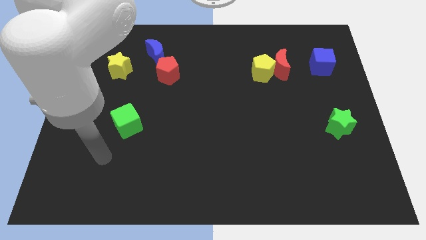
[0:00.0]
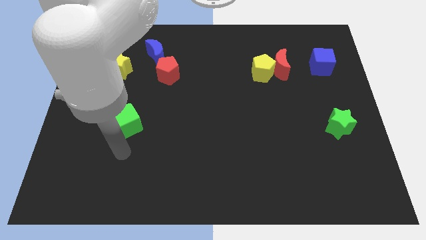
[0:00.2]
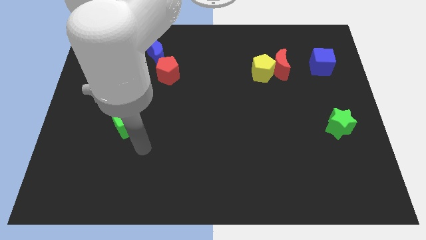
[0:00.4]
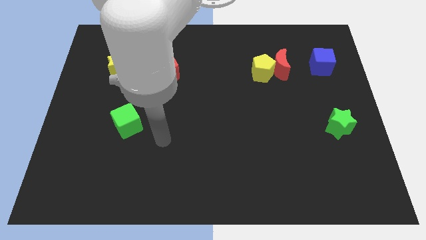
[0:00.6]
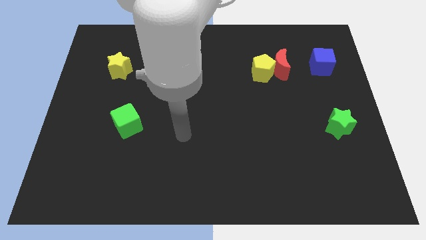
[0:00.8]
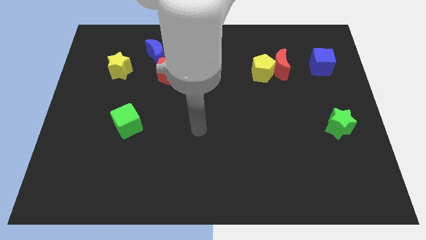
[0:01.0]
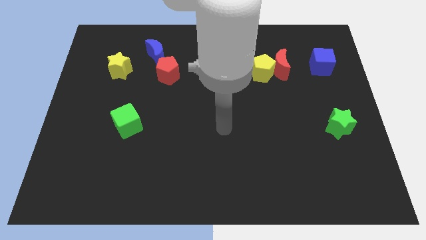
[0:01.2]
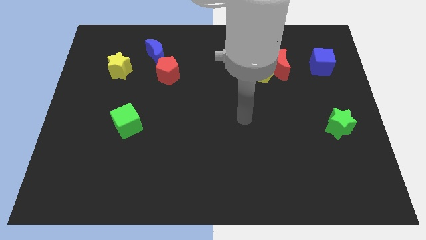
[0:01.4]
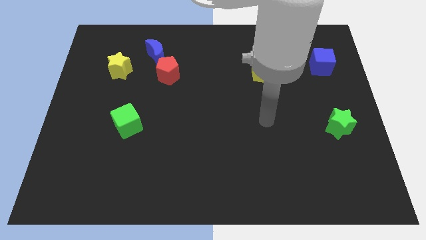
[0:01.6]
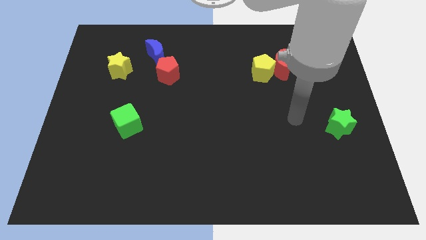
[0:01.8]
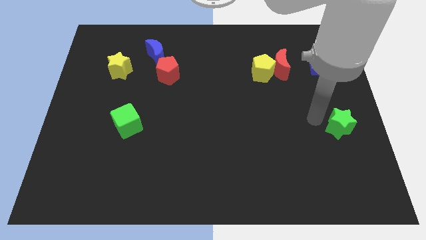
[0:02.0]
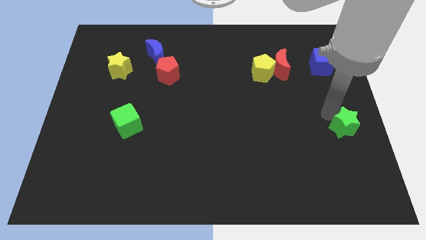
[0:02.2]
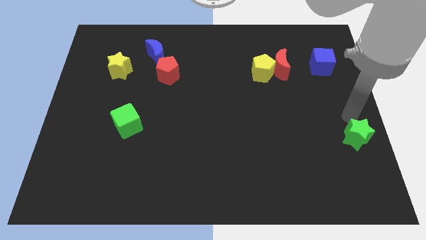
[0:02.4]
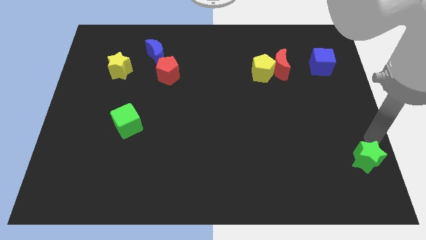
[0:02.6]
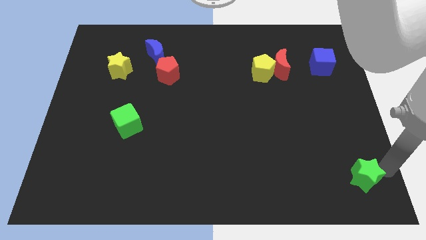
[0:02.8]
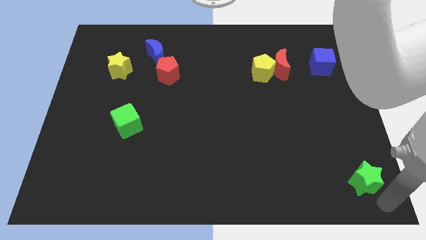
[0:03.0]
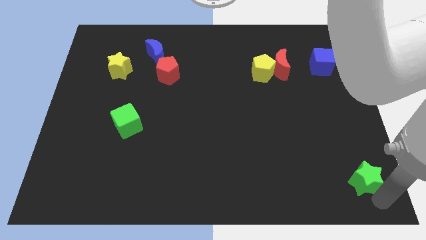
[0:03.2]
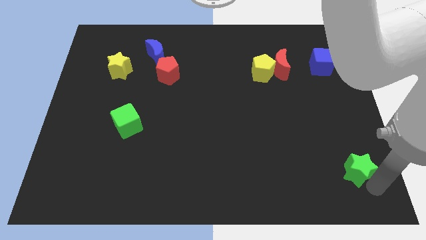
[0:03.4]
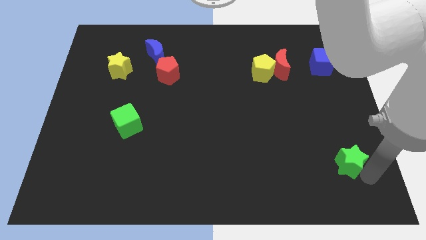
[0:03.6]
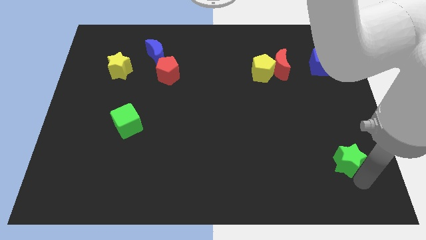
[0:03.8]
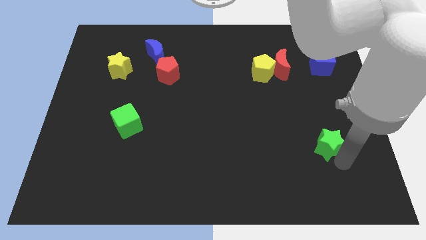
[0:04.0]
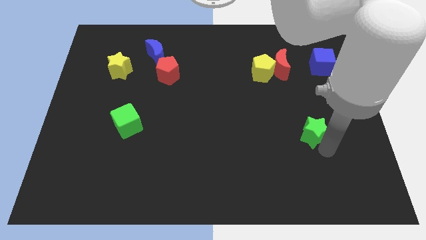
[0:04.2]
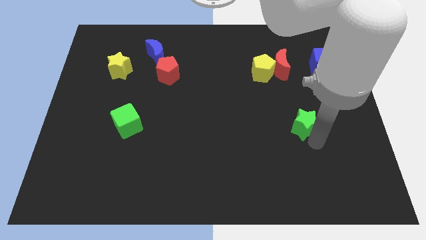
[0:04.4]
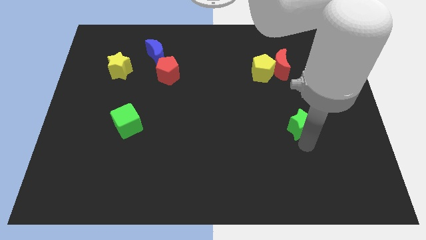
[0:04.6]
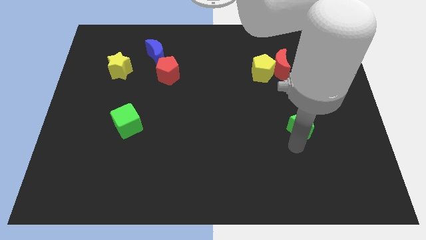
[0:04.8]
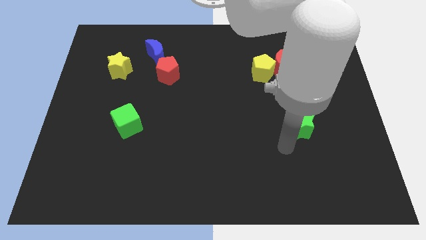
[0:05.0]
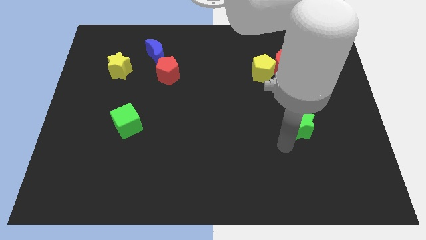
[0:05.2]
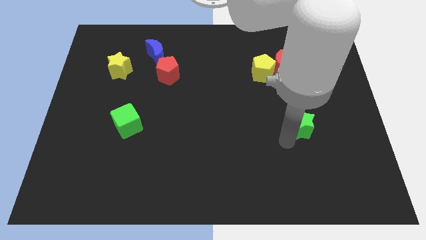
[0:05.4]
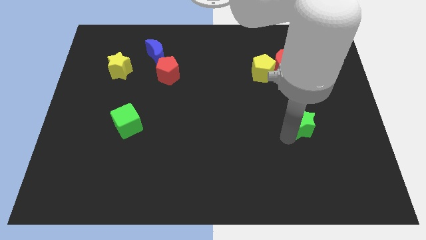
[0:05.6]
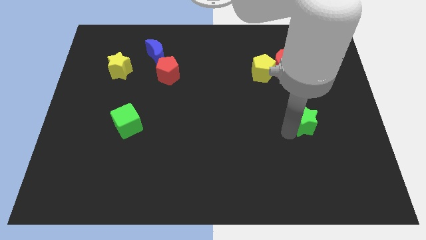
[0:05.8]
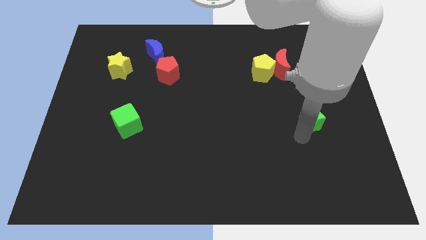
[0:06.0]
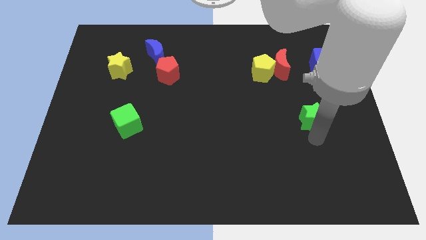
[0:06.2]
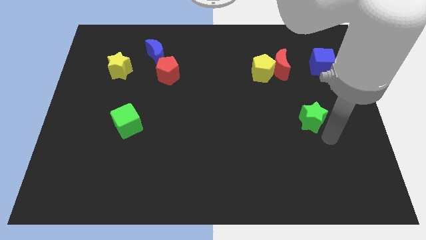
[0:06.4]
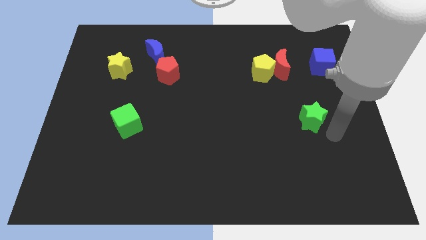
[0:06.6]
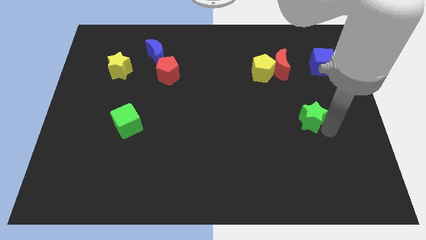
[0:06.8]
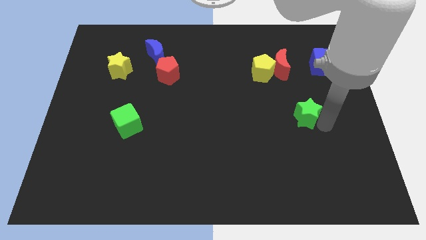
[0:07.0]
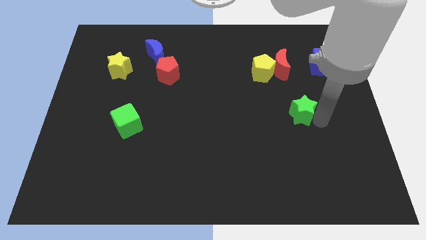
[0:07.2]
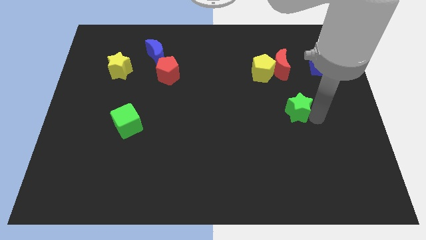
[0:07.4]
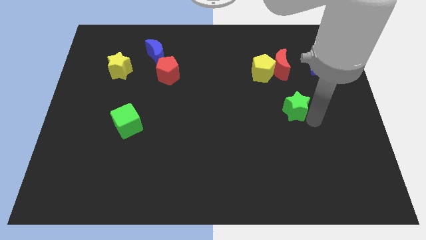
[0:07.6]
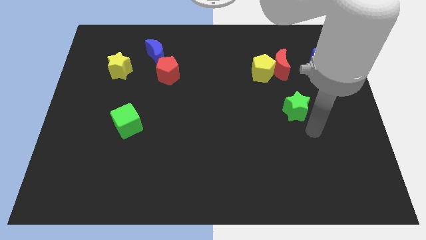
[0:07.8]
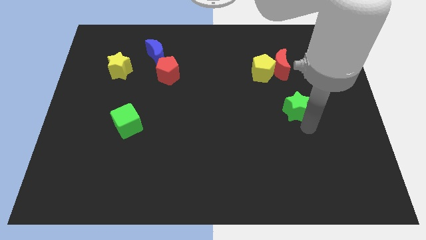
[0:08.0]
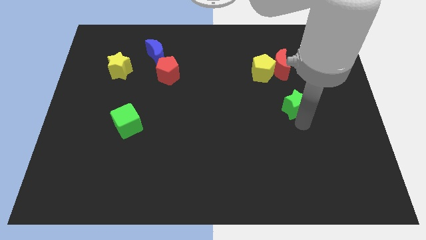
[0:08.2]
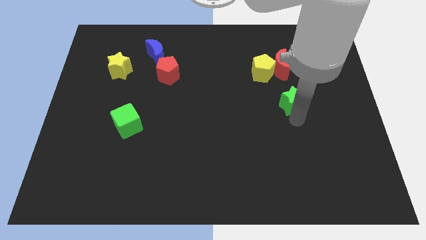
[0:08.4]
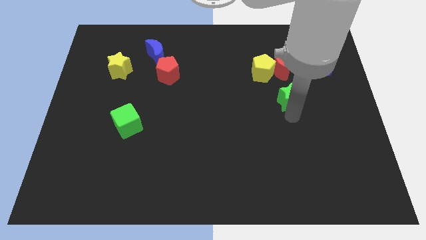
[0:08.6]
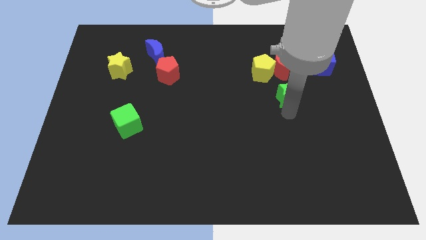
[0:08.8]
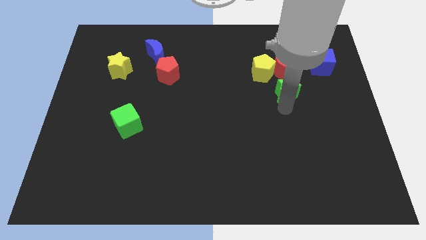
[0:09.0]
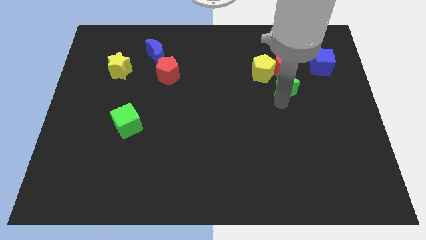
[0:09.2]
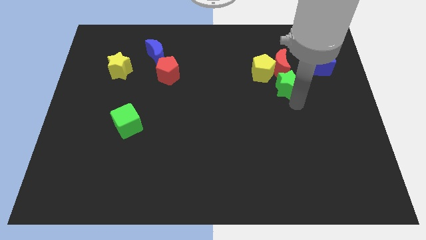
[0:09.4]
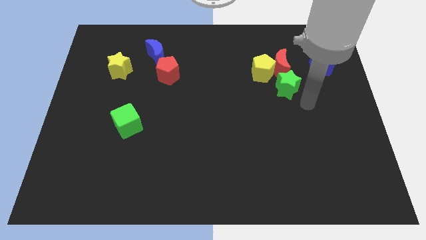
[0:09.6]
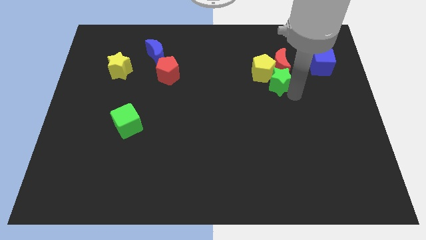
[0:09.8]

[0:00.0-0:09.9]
move the green star to the yellow pentagon

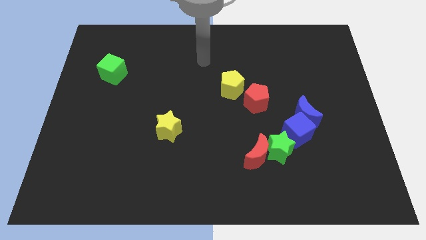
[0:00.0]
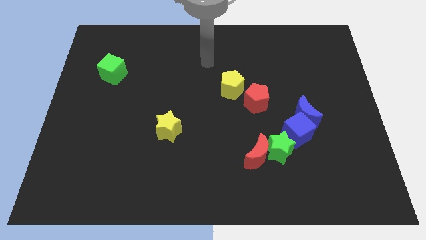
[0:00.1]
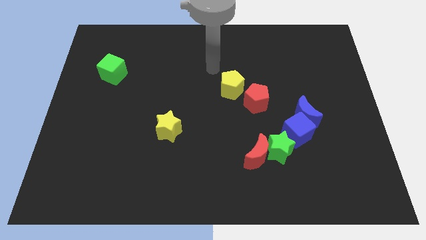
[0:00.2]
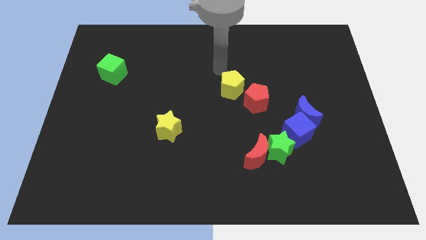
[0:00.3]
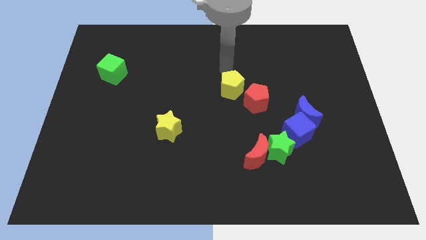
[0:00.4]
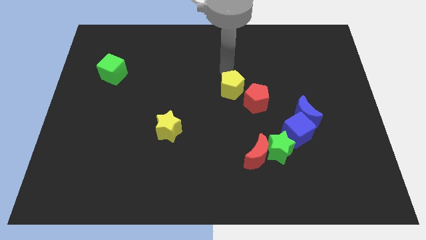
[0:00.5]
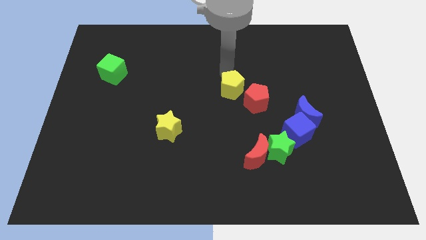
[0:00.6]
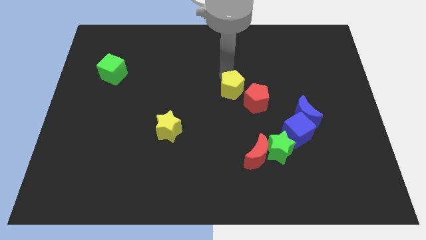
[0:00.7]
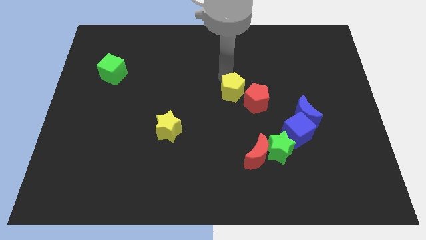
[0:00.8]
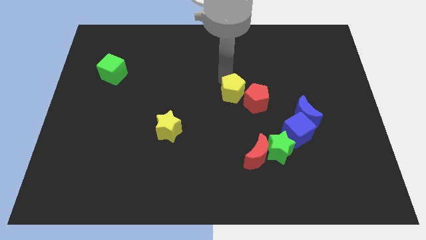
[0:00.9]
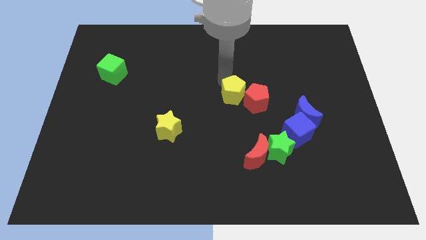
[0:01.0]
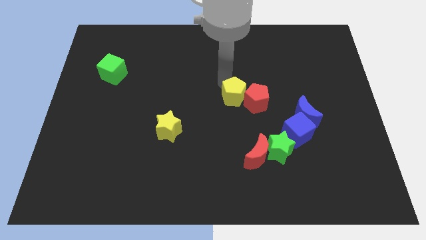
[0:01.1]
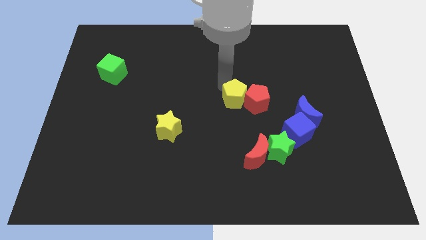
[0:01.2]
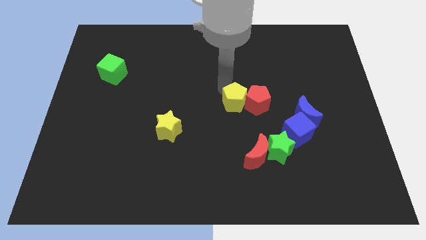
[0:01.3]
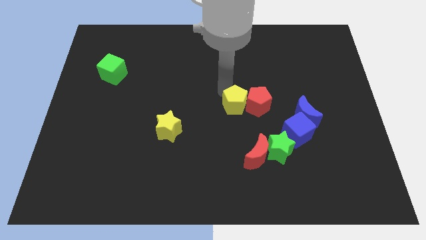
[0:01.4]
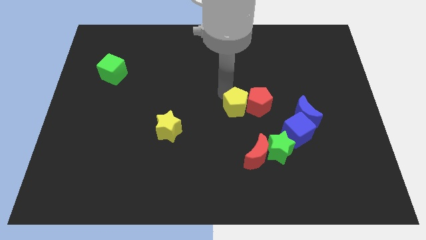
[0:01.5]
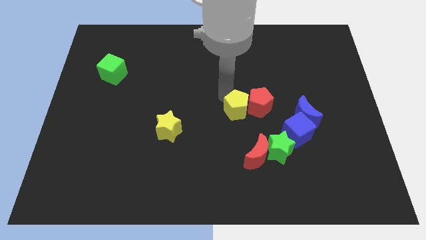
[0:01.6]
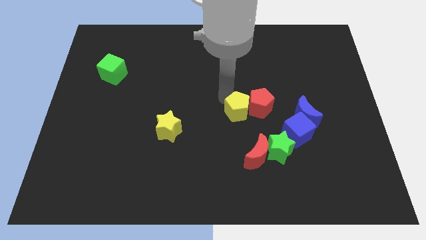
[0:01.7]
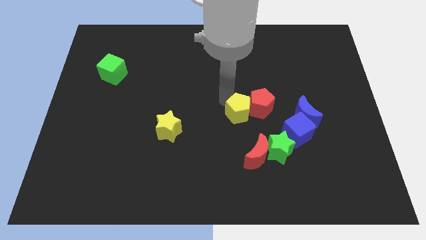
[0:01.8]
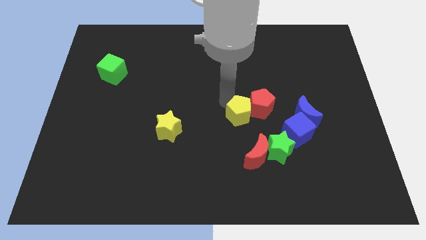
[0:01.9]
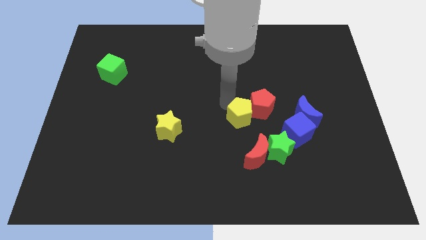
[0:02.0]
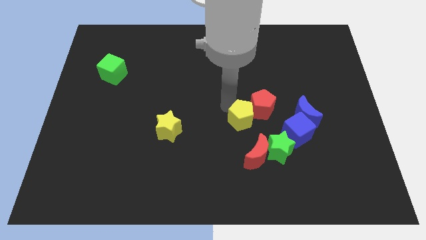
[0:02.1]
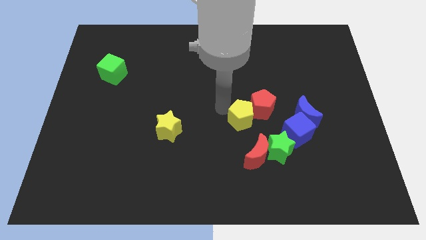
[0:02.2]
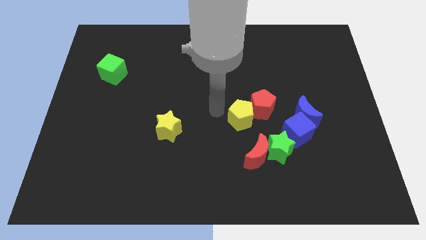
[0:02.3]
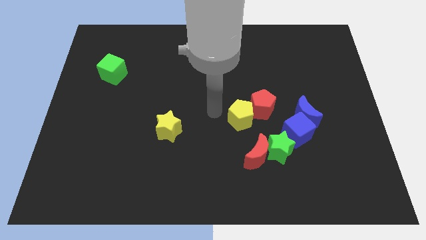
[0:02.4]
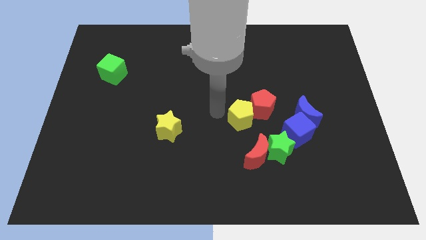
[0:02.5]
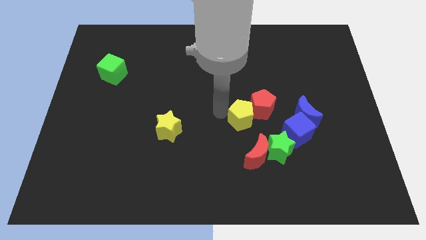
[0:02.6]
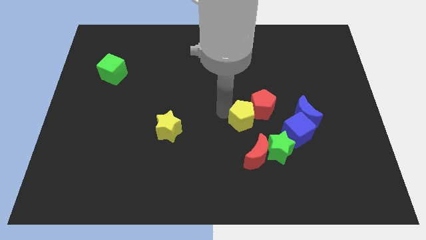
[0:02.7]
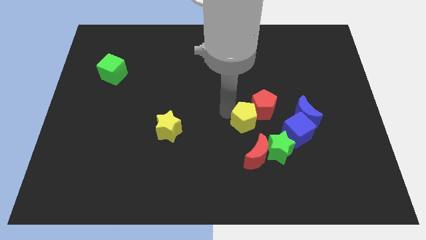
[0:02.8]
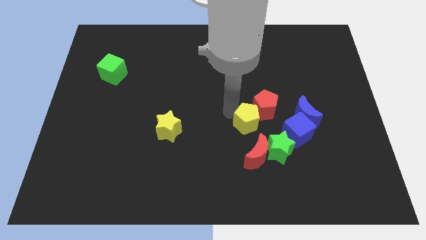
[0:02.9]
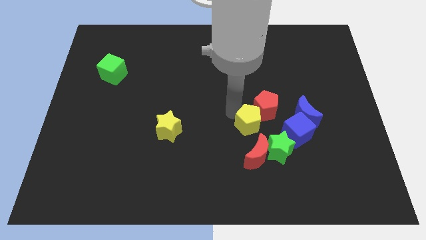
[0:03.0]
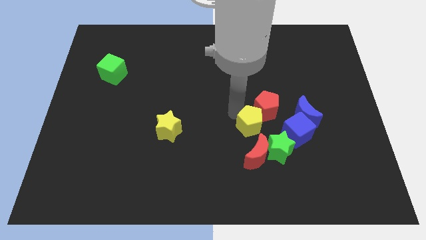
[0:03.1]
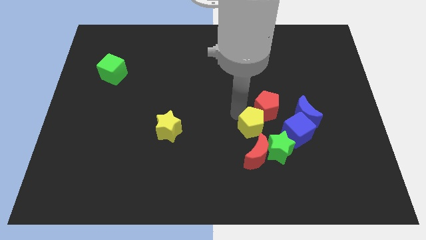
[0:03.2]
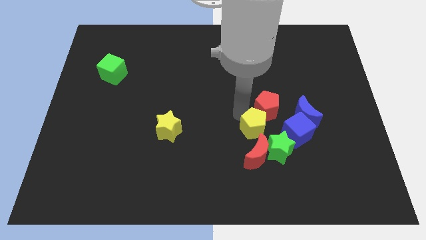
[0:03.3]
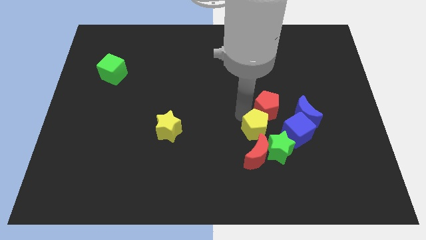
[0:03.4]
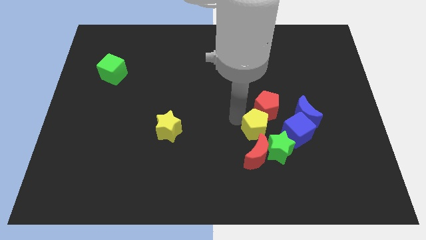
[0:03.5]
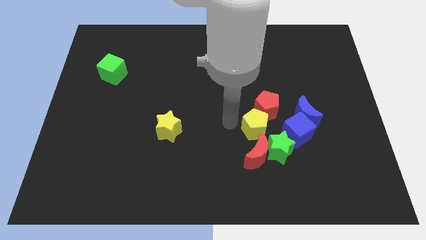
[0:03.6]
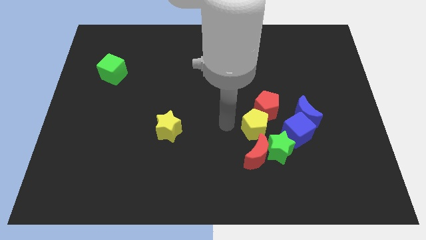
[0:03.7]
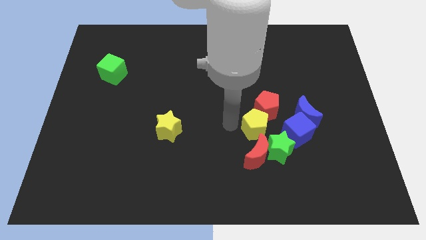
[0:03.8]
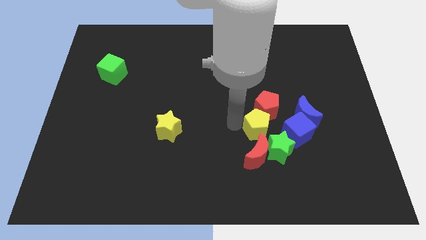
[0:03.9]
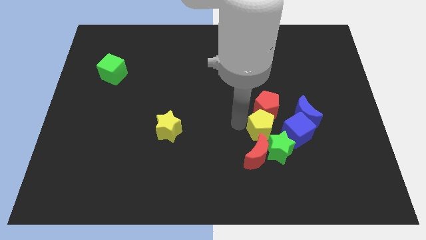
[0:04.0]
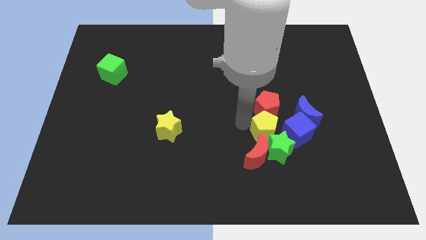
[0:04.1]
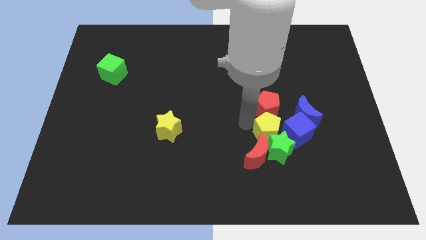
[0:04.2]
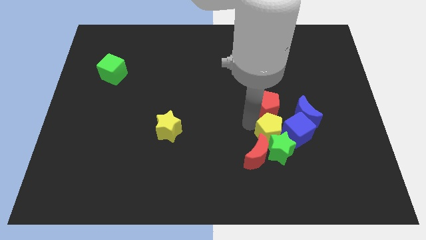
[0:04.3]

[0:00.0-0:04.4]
slide the yellow pentagon to the blue cube
